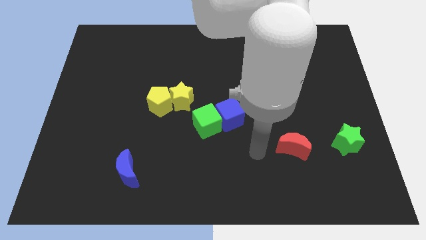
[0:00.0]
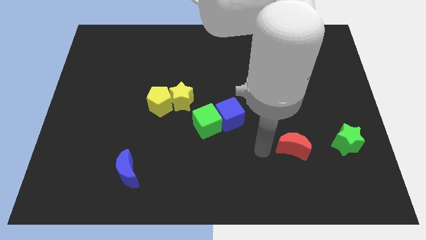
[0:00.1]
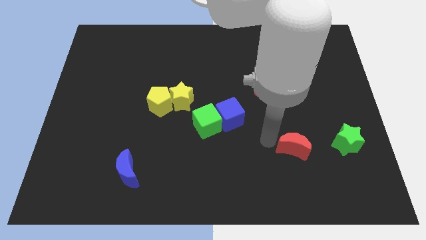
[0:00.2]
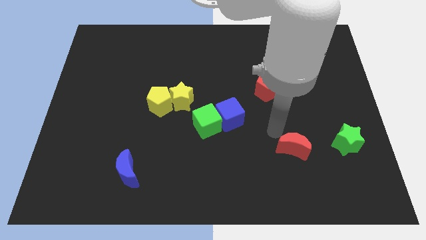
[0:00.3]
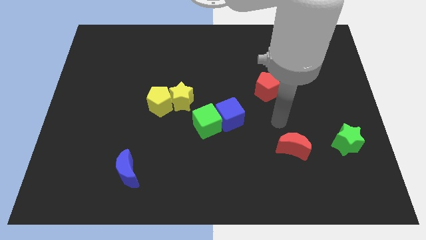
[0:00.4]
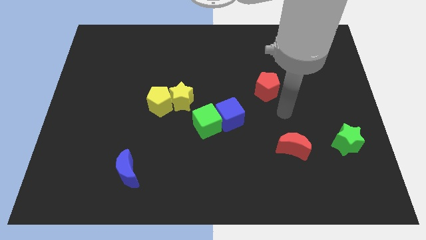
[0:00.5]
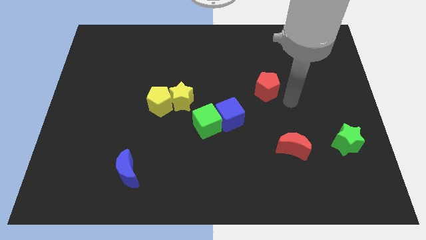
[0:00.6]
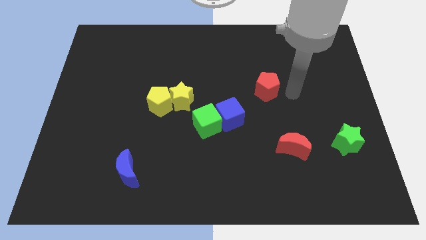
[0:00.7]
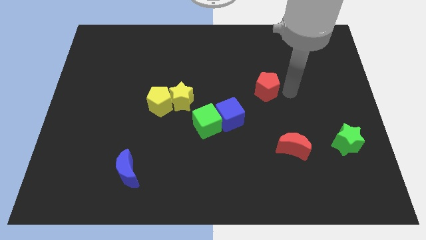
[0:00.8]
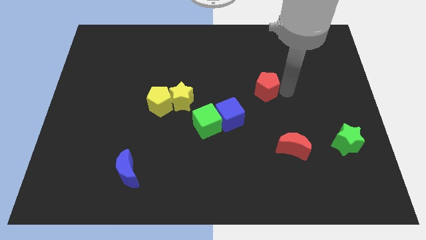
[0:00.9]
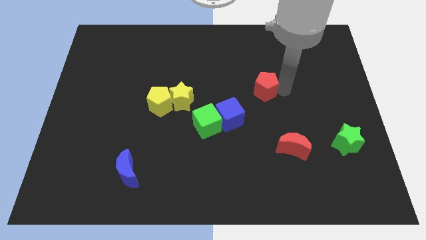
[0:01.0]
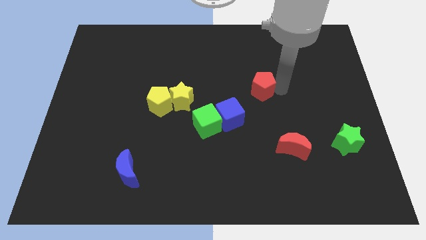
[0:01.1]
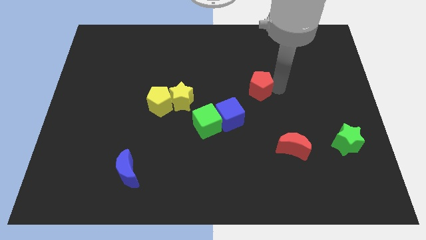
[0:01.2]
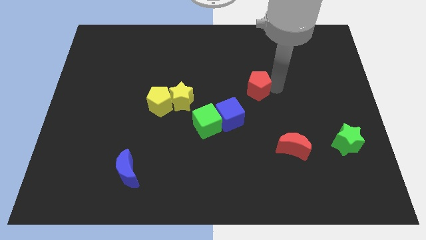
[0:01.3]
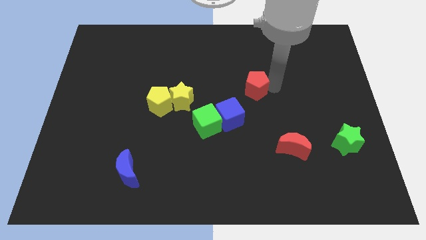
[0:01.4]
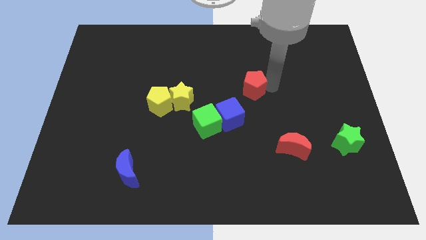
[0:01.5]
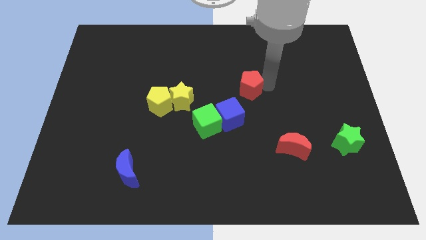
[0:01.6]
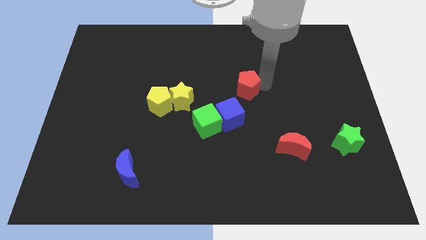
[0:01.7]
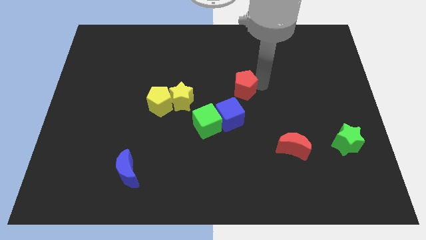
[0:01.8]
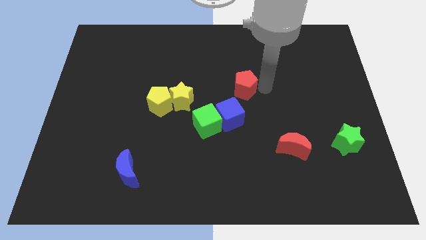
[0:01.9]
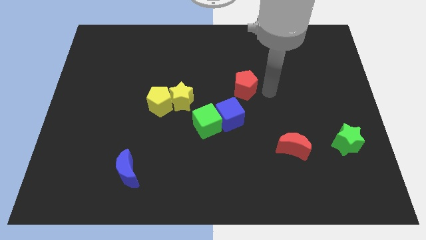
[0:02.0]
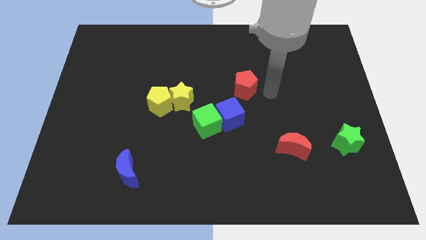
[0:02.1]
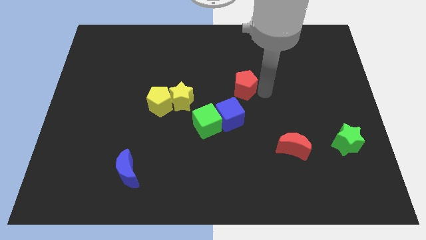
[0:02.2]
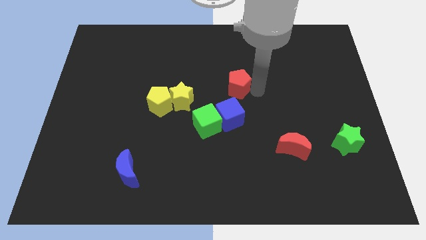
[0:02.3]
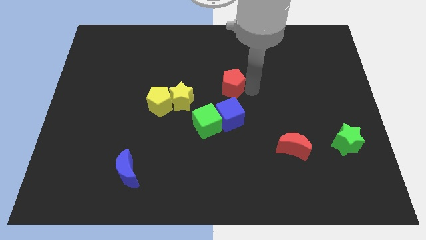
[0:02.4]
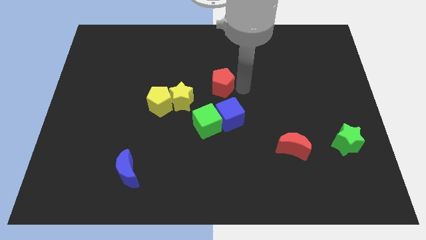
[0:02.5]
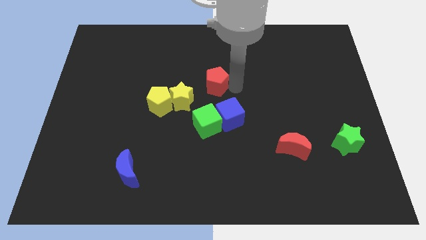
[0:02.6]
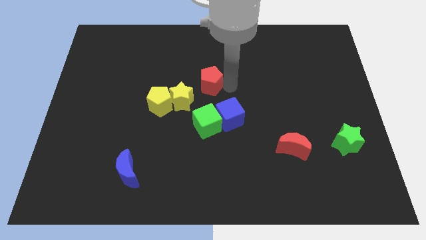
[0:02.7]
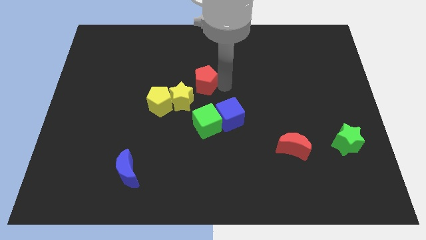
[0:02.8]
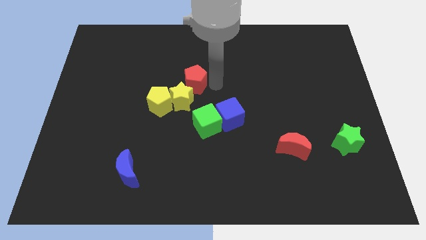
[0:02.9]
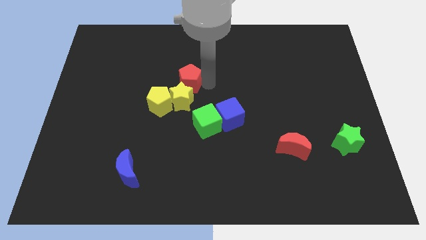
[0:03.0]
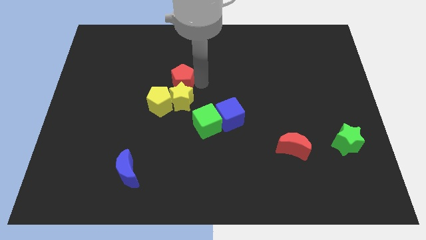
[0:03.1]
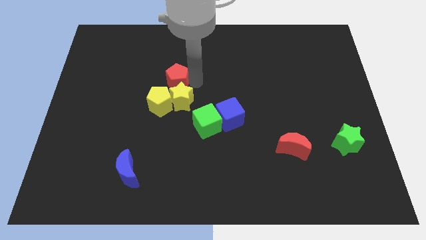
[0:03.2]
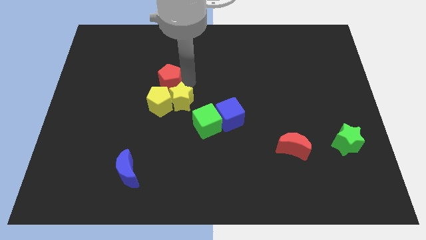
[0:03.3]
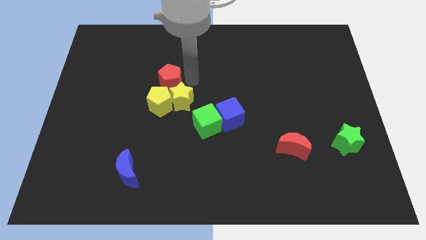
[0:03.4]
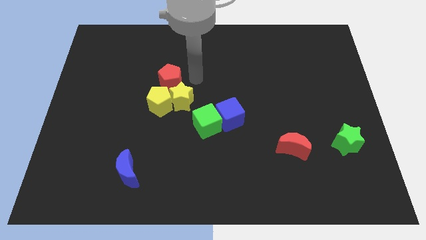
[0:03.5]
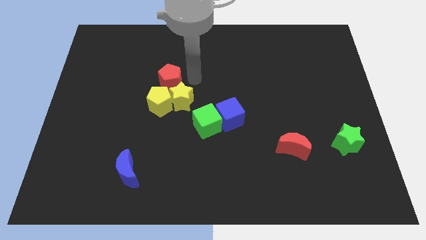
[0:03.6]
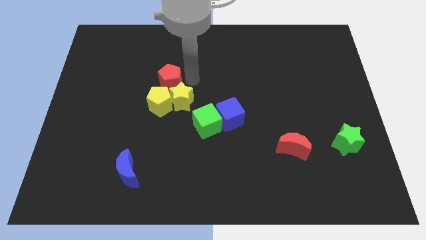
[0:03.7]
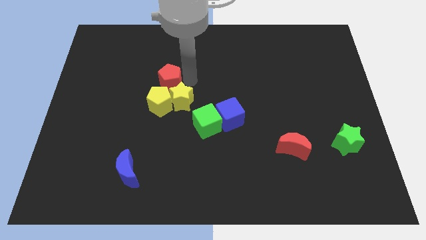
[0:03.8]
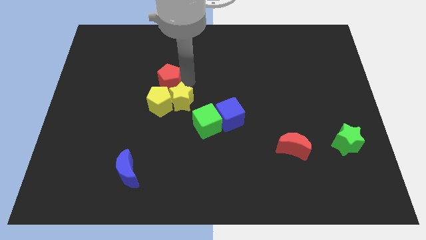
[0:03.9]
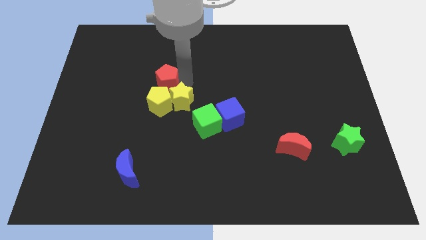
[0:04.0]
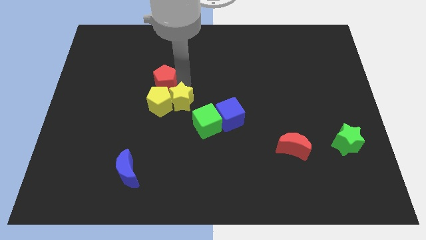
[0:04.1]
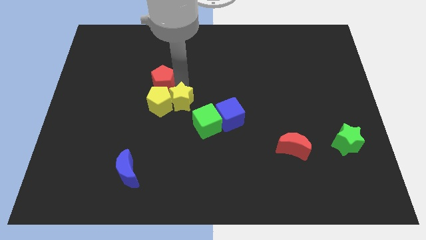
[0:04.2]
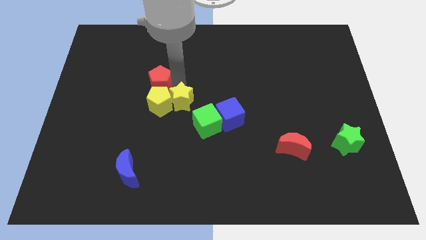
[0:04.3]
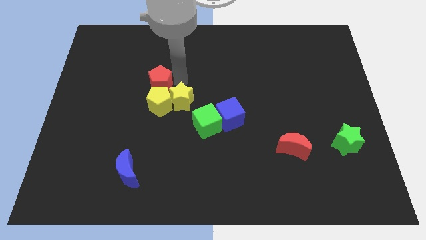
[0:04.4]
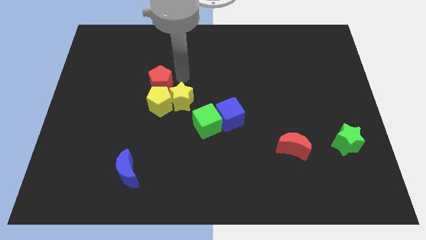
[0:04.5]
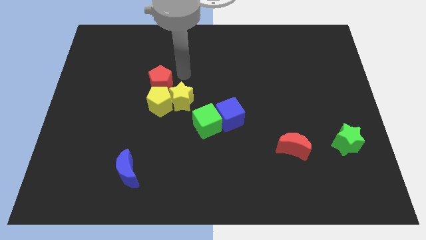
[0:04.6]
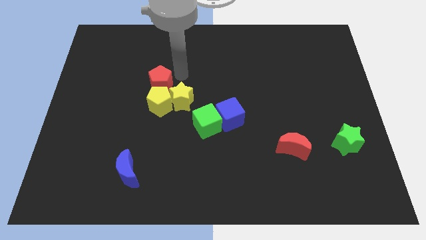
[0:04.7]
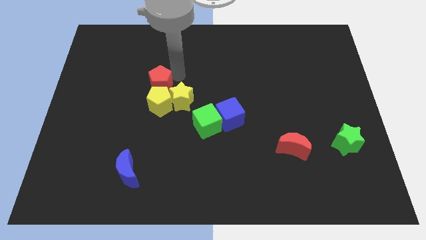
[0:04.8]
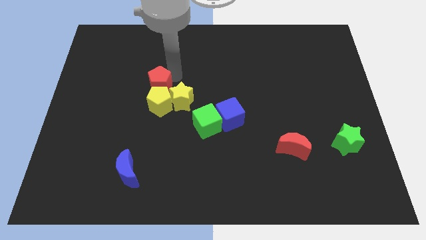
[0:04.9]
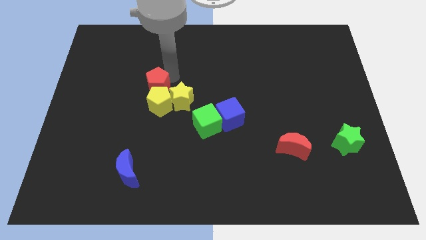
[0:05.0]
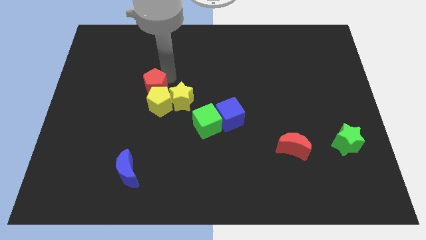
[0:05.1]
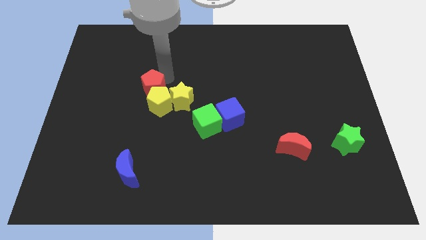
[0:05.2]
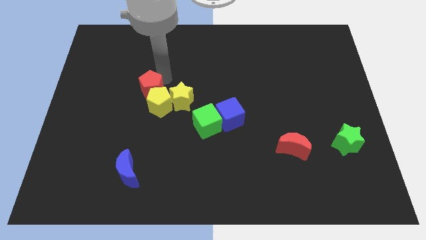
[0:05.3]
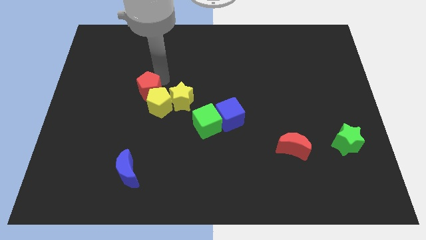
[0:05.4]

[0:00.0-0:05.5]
slide the red pentagon just left of the yellow pentagon

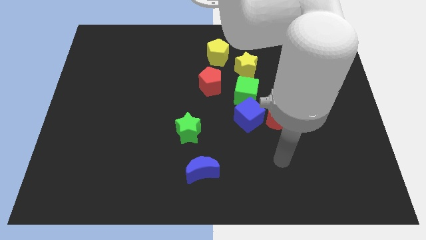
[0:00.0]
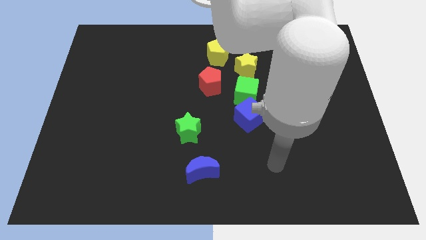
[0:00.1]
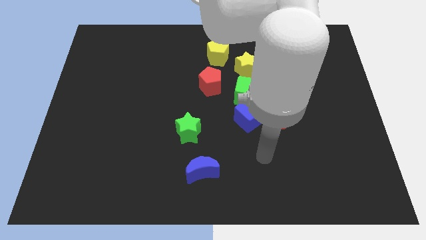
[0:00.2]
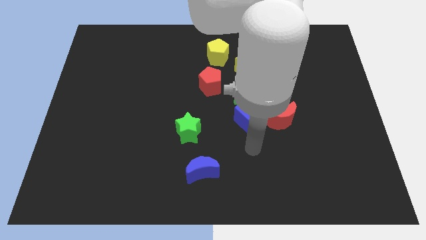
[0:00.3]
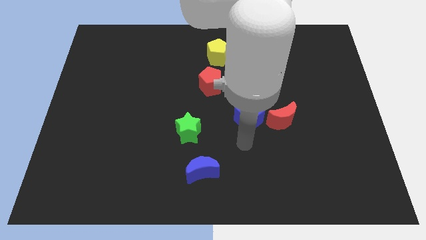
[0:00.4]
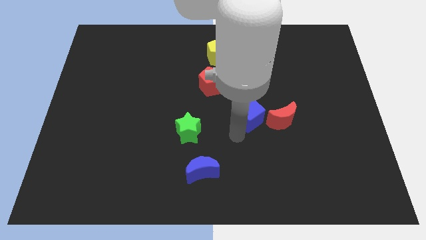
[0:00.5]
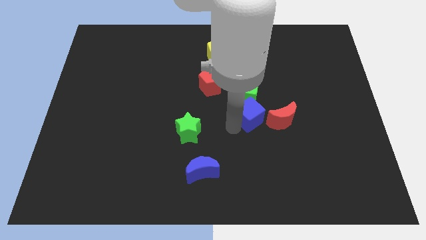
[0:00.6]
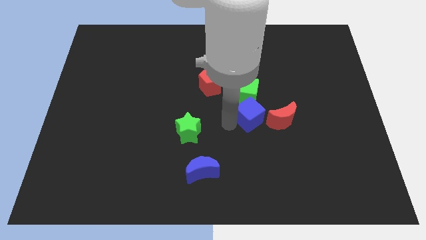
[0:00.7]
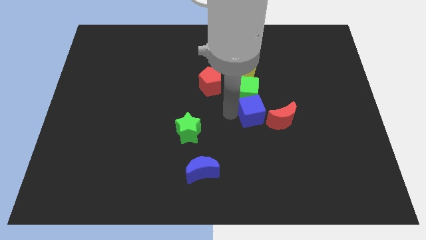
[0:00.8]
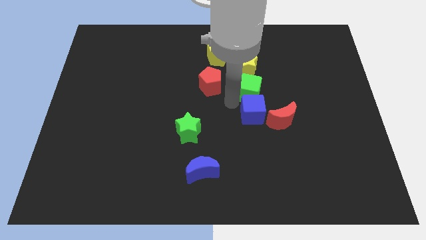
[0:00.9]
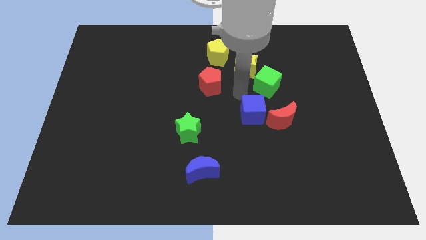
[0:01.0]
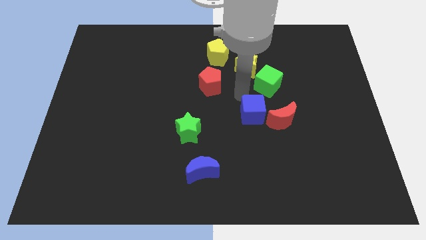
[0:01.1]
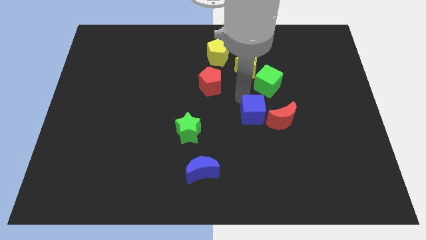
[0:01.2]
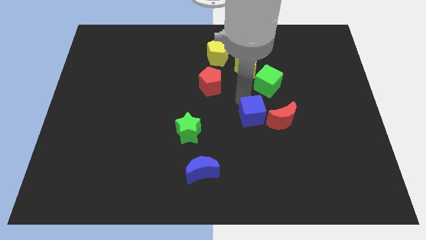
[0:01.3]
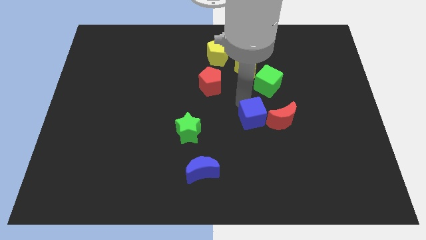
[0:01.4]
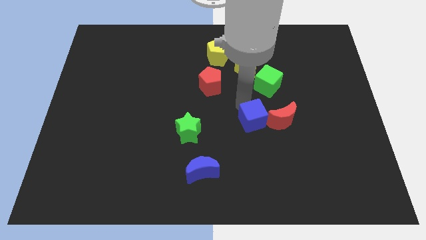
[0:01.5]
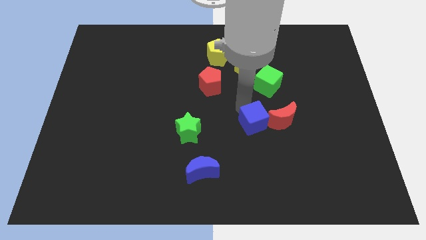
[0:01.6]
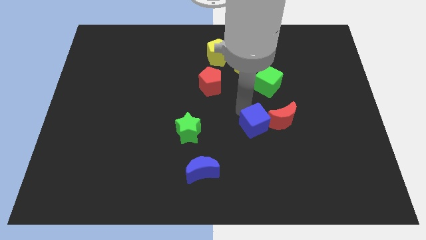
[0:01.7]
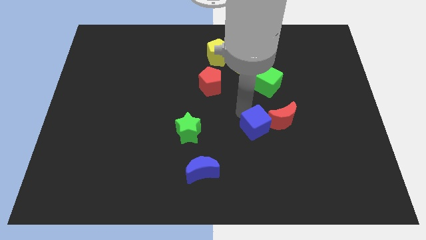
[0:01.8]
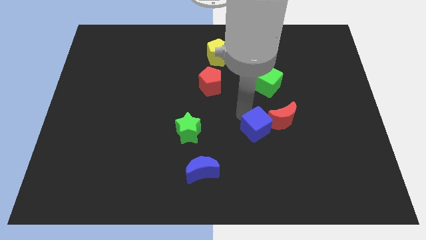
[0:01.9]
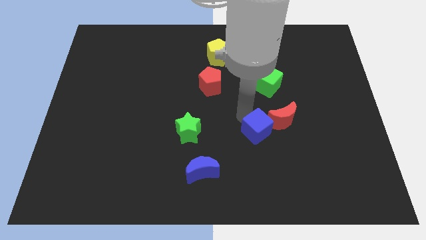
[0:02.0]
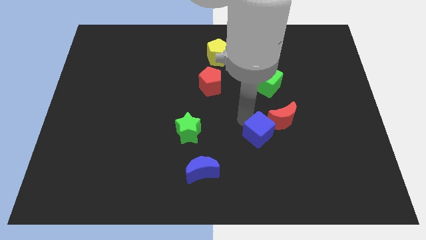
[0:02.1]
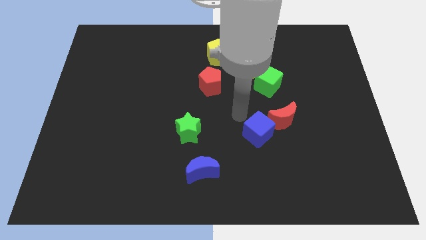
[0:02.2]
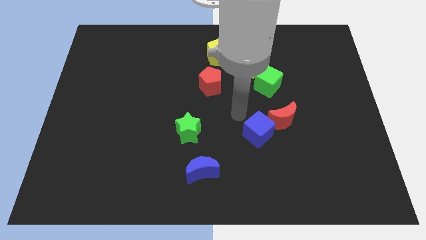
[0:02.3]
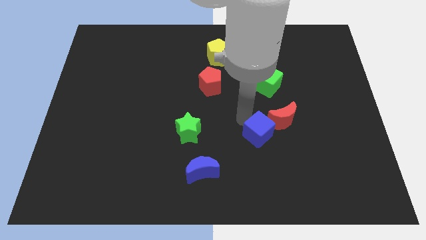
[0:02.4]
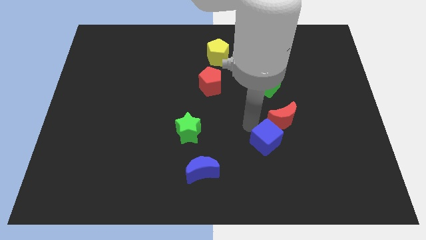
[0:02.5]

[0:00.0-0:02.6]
put the blue cube below the red moon
